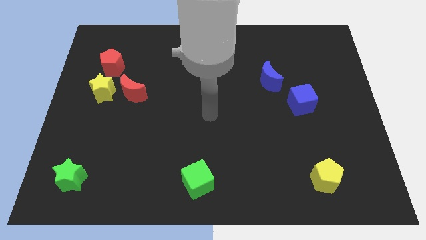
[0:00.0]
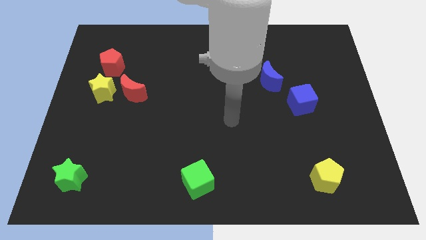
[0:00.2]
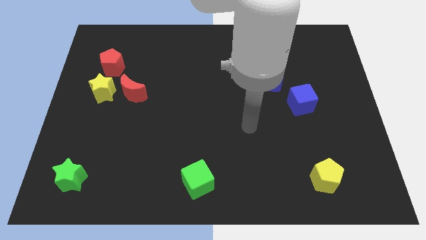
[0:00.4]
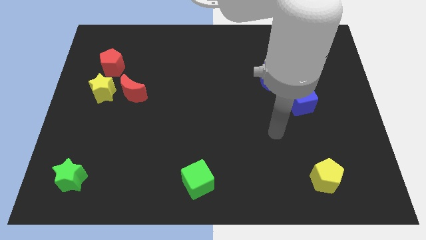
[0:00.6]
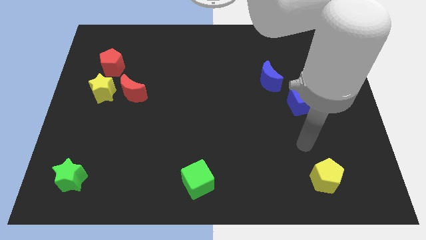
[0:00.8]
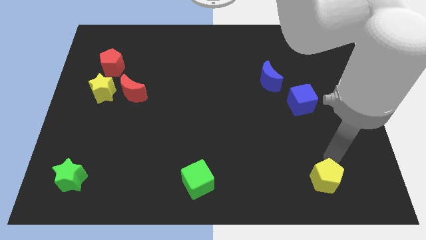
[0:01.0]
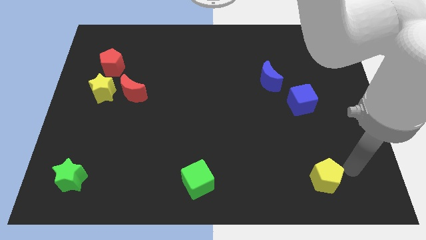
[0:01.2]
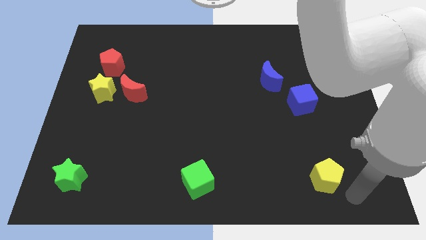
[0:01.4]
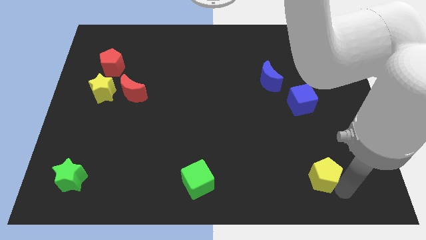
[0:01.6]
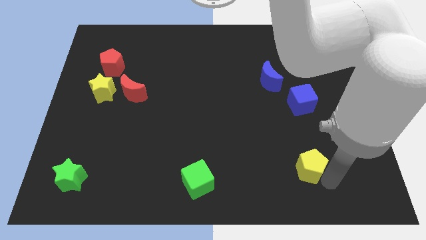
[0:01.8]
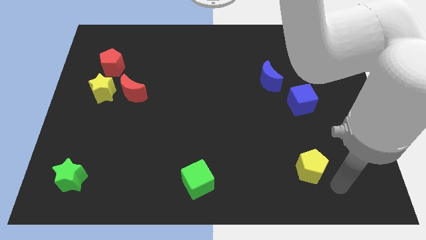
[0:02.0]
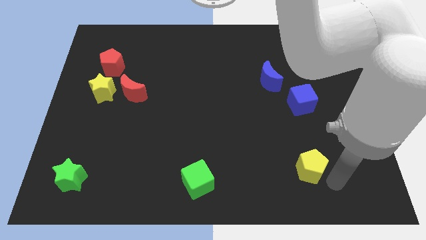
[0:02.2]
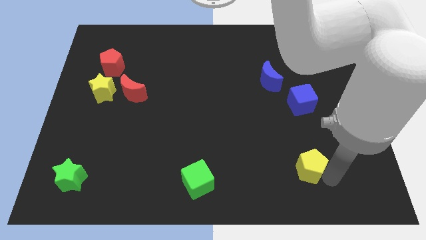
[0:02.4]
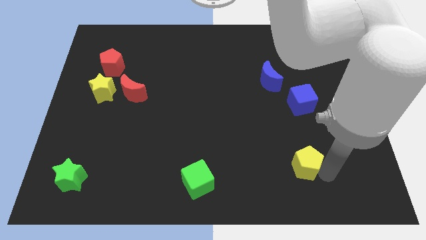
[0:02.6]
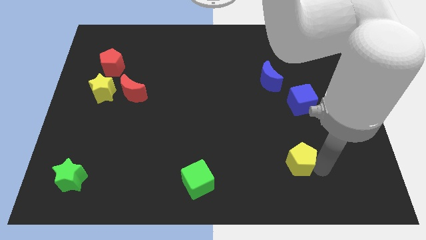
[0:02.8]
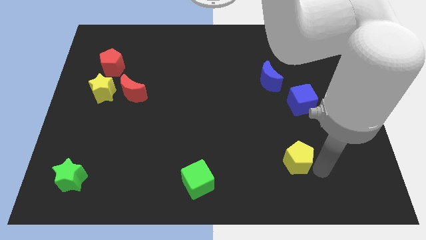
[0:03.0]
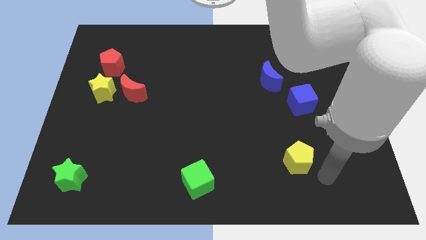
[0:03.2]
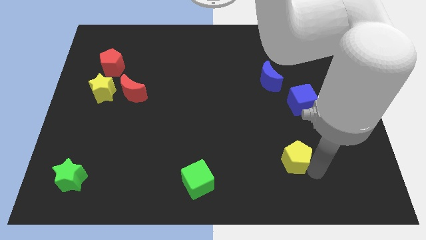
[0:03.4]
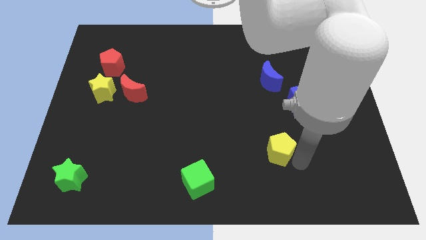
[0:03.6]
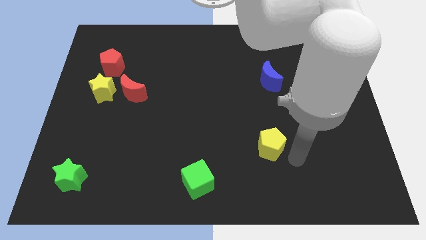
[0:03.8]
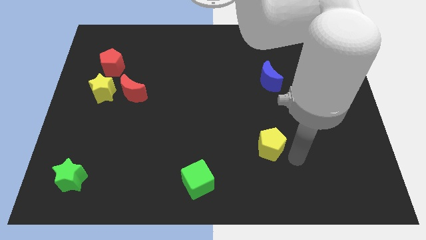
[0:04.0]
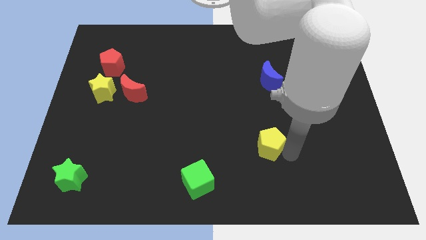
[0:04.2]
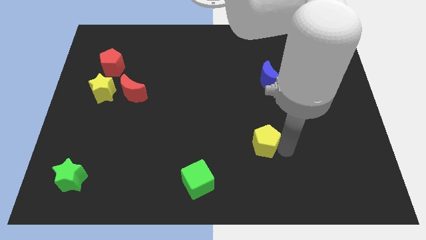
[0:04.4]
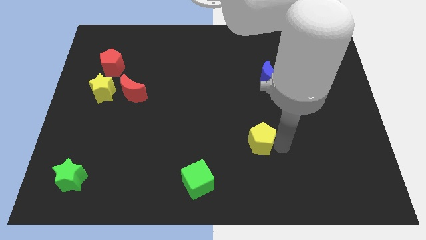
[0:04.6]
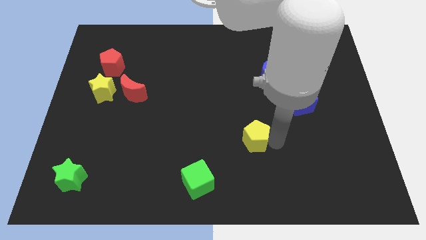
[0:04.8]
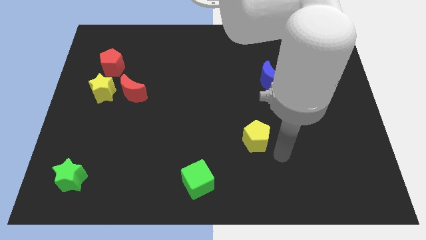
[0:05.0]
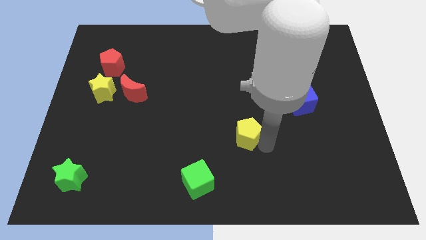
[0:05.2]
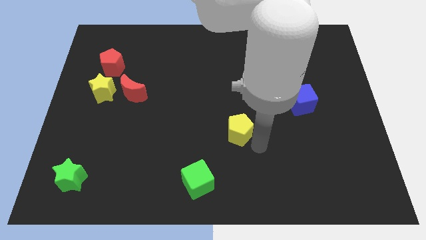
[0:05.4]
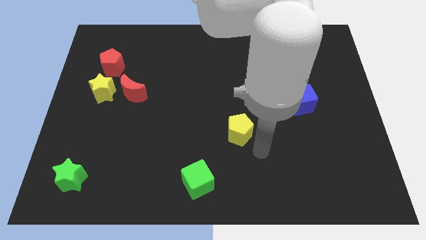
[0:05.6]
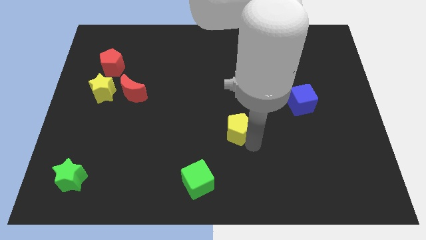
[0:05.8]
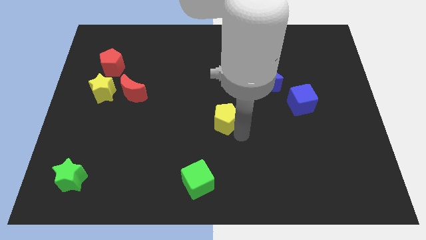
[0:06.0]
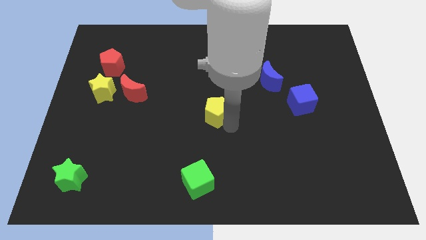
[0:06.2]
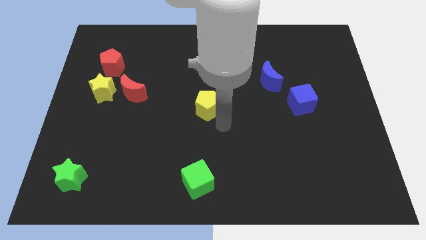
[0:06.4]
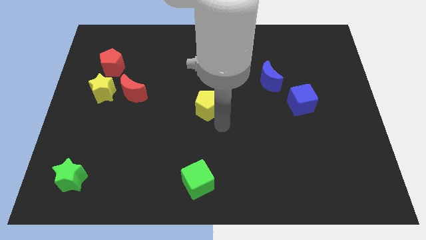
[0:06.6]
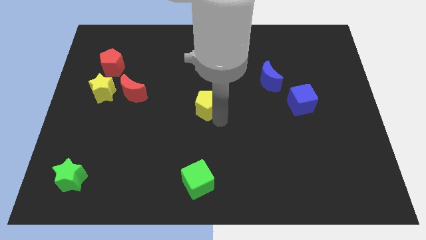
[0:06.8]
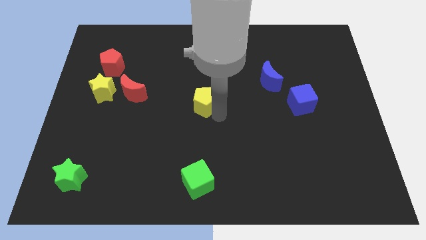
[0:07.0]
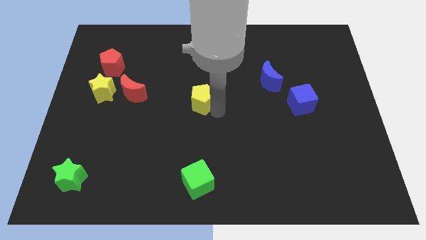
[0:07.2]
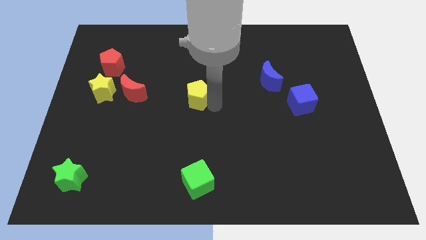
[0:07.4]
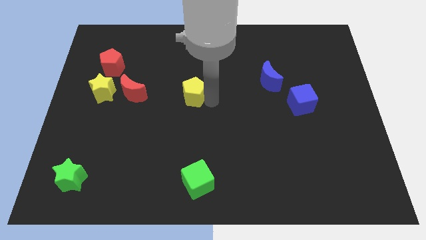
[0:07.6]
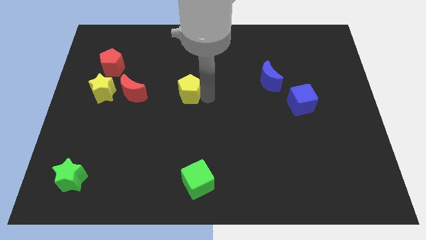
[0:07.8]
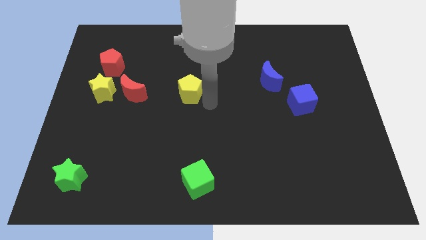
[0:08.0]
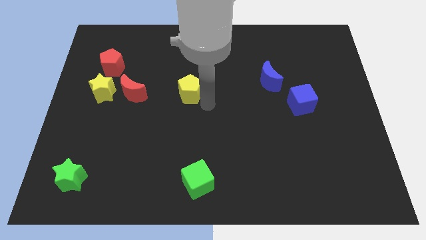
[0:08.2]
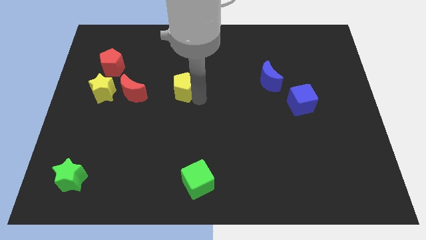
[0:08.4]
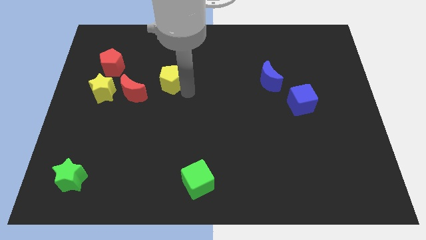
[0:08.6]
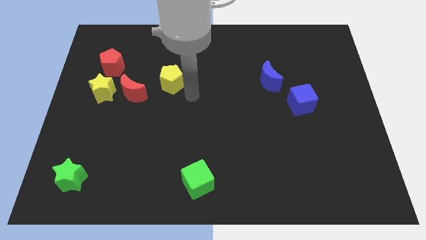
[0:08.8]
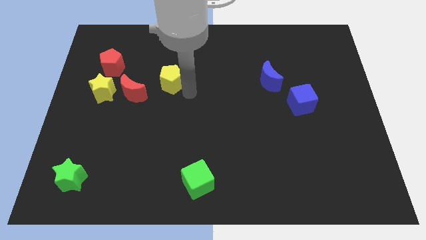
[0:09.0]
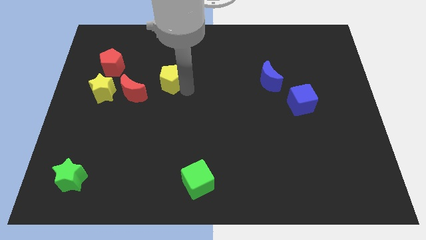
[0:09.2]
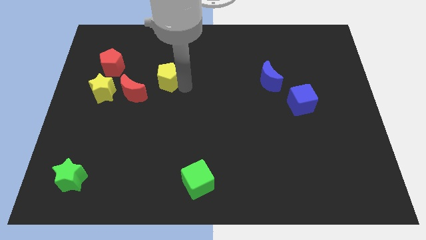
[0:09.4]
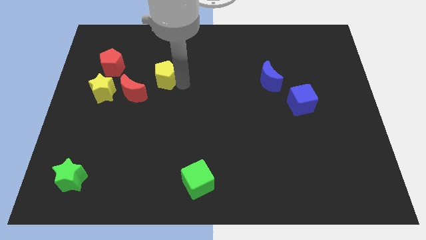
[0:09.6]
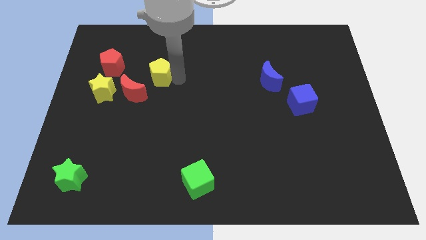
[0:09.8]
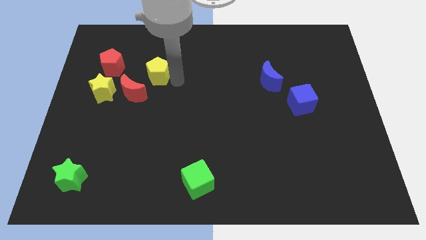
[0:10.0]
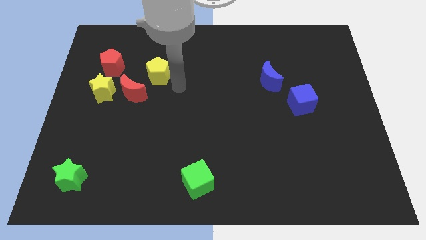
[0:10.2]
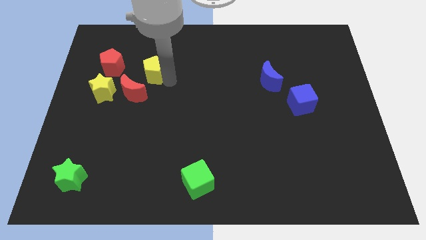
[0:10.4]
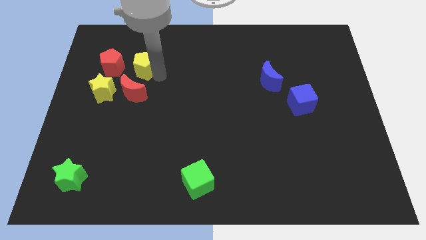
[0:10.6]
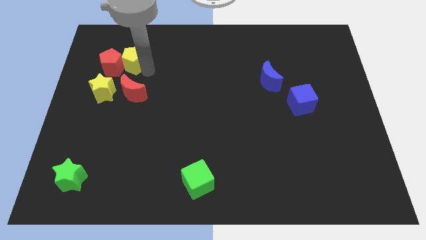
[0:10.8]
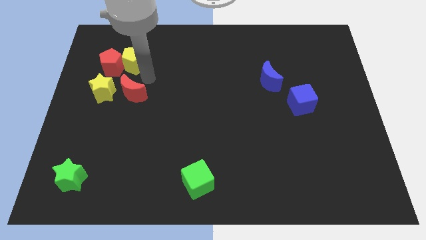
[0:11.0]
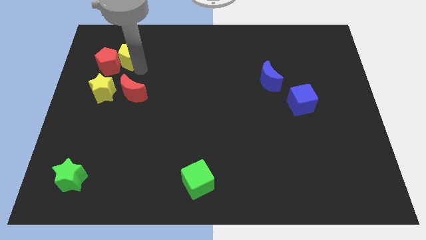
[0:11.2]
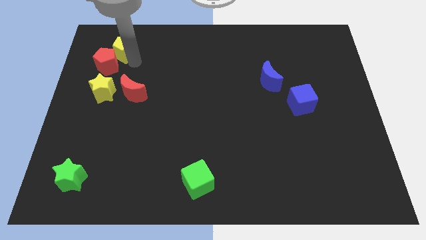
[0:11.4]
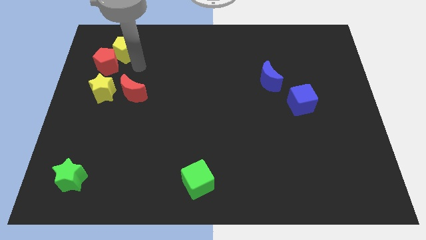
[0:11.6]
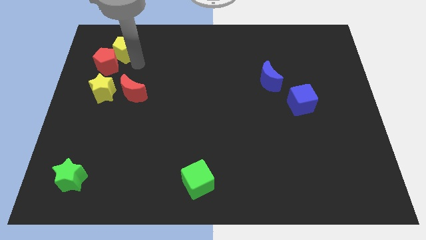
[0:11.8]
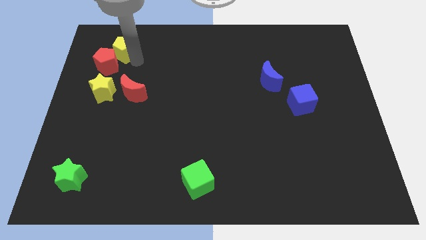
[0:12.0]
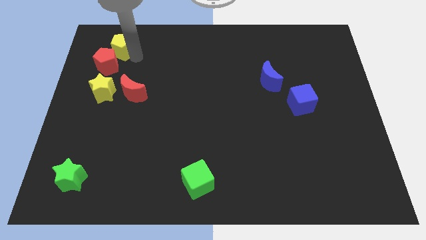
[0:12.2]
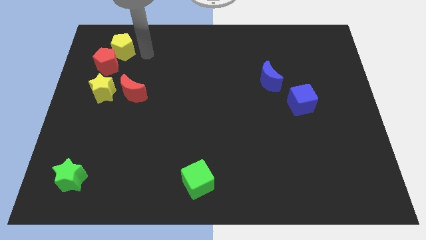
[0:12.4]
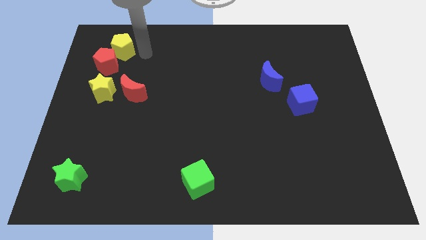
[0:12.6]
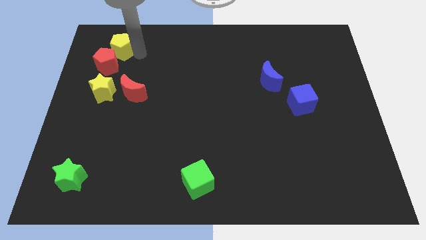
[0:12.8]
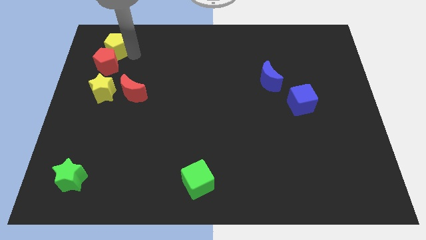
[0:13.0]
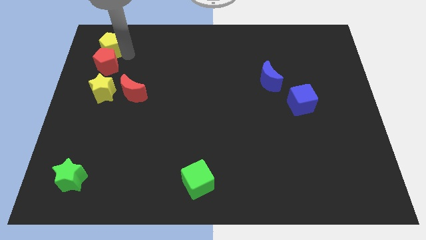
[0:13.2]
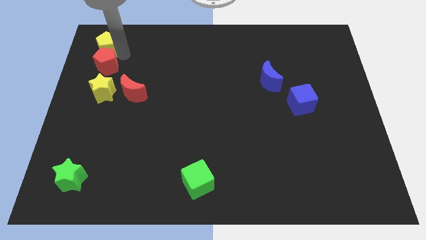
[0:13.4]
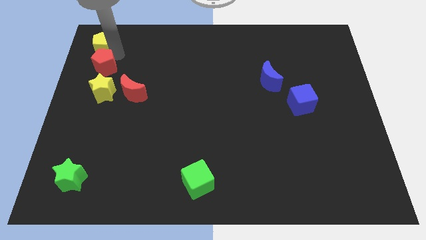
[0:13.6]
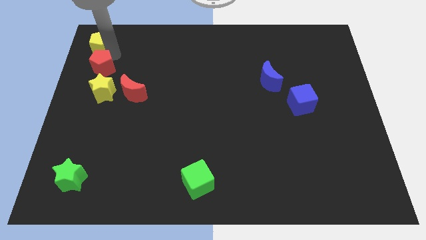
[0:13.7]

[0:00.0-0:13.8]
move the yellow pentagon to the top left corner
